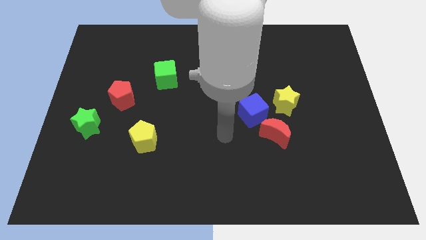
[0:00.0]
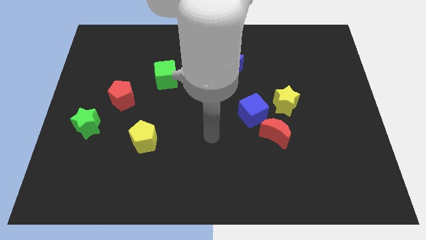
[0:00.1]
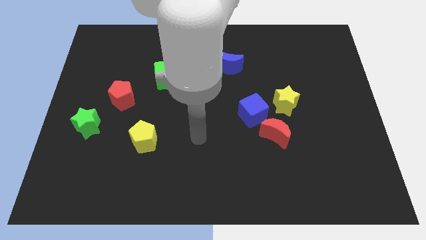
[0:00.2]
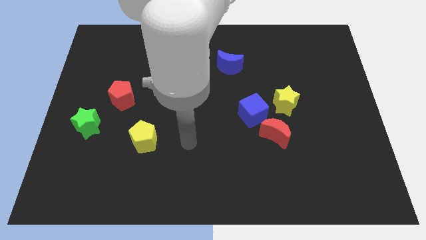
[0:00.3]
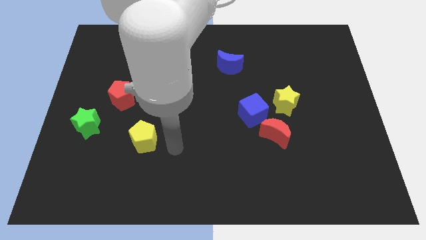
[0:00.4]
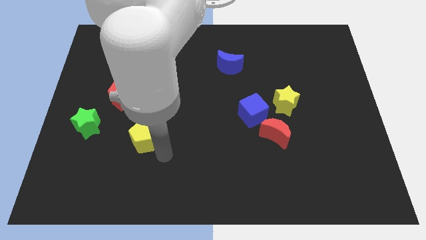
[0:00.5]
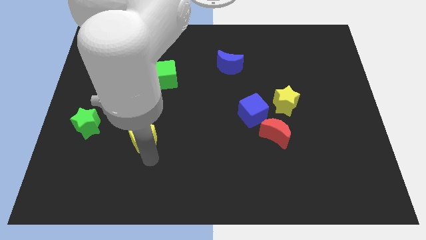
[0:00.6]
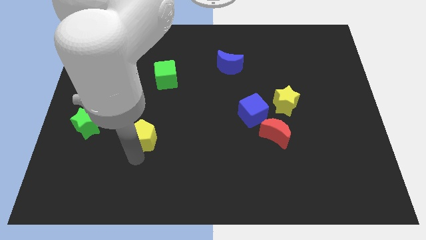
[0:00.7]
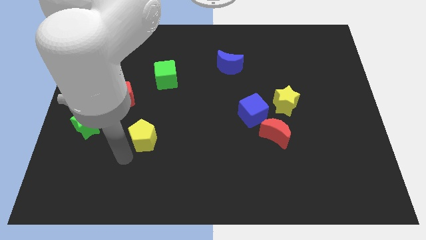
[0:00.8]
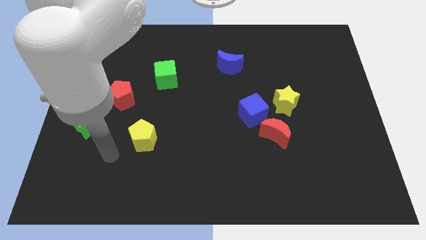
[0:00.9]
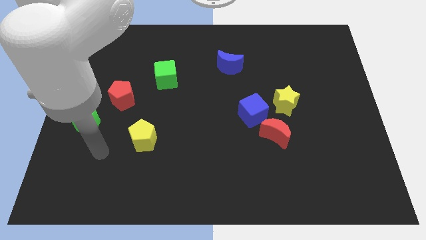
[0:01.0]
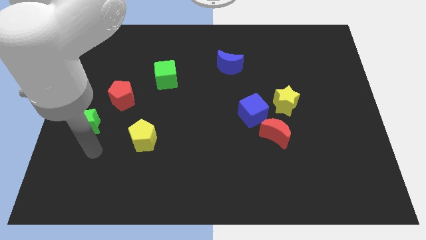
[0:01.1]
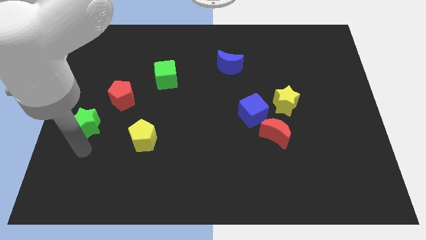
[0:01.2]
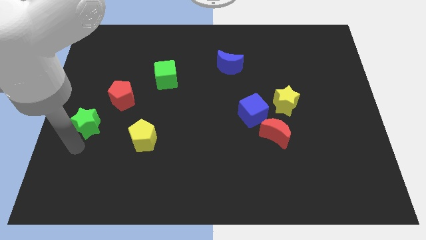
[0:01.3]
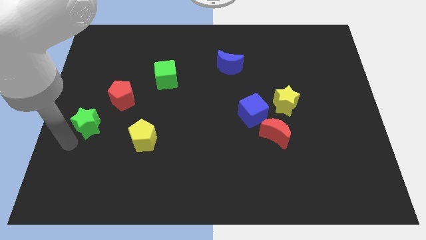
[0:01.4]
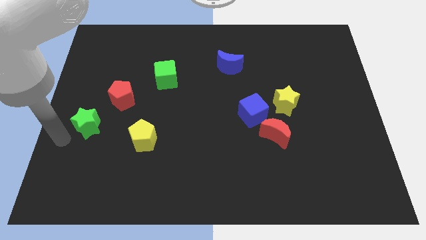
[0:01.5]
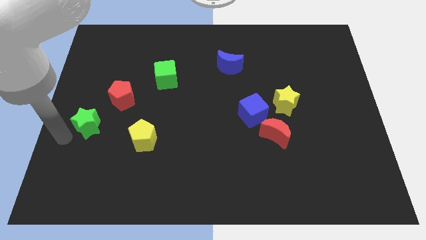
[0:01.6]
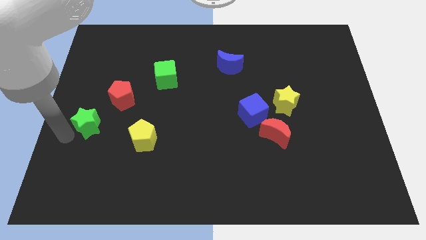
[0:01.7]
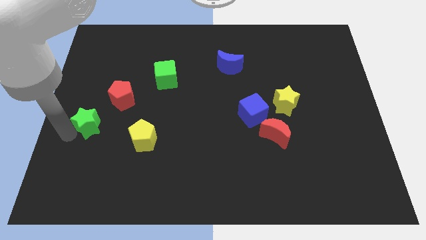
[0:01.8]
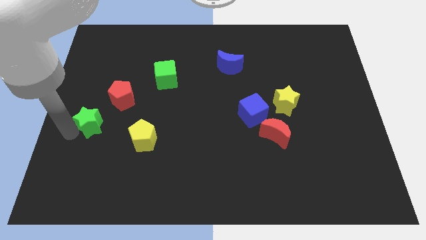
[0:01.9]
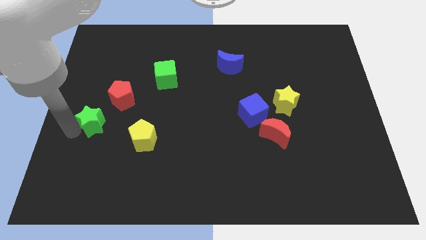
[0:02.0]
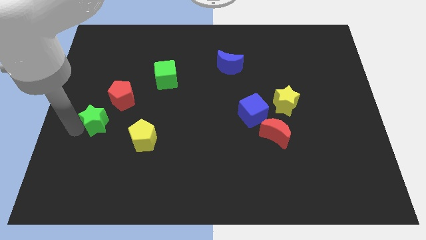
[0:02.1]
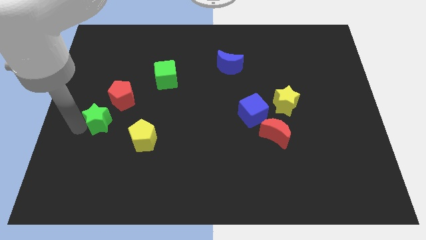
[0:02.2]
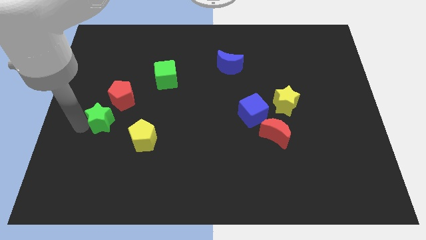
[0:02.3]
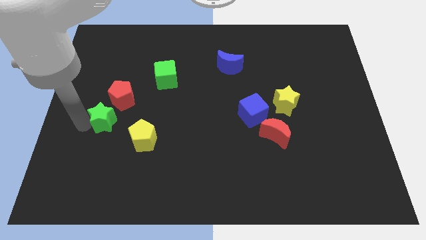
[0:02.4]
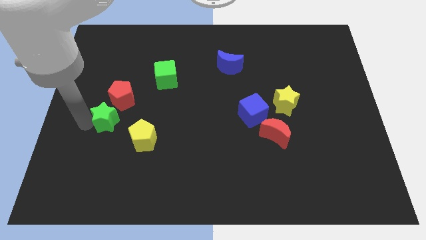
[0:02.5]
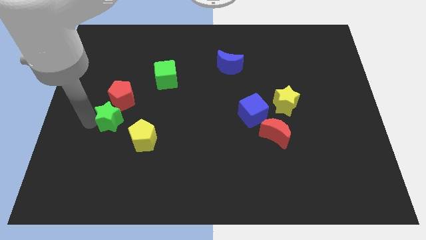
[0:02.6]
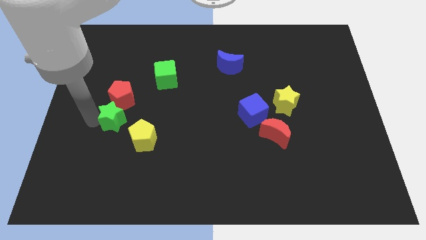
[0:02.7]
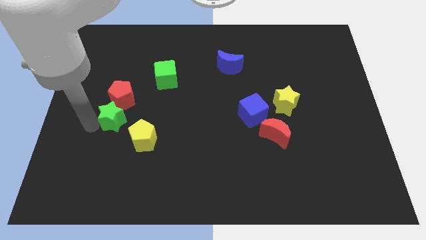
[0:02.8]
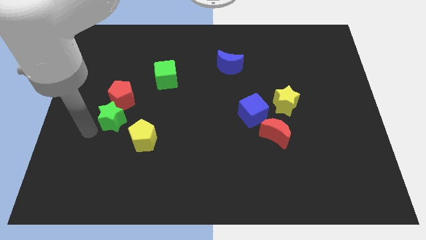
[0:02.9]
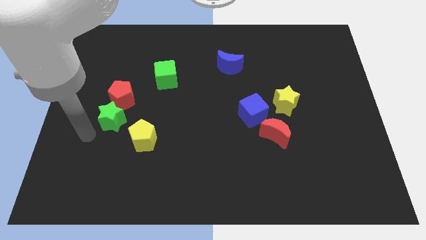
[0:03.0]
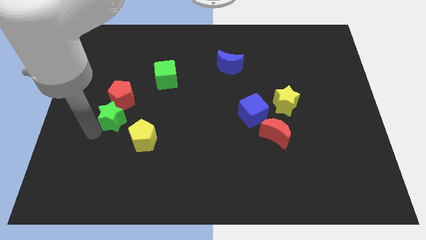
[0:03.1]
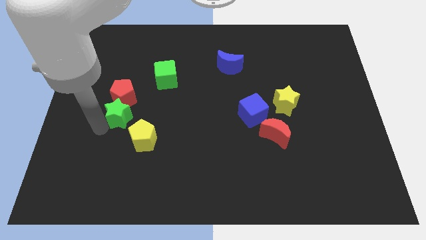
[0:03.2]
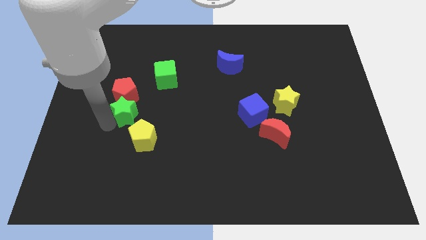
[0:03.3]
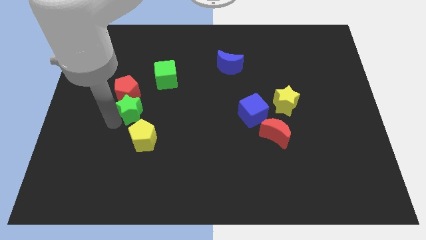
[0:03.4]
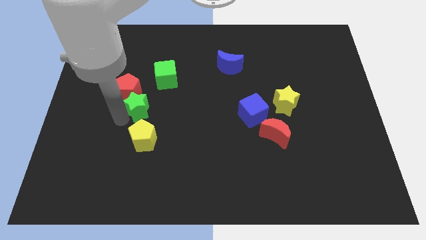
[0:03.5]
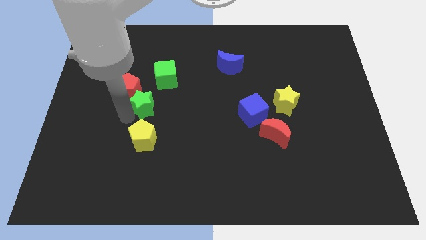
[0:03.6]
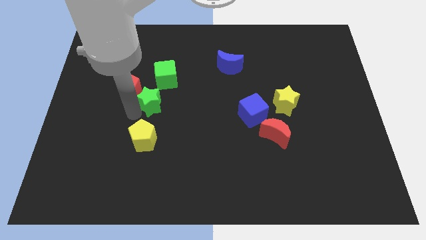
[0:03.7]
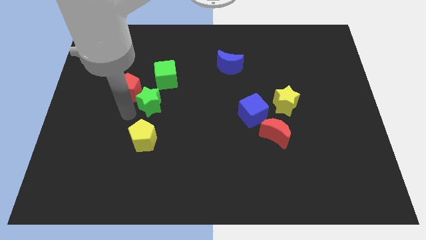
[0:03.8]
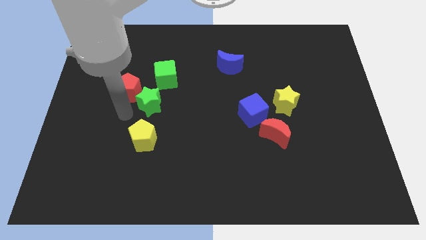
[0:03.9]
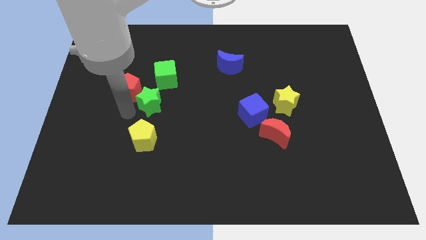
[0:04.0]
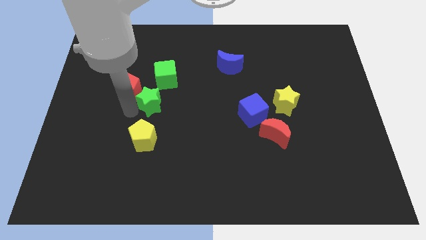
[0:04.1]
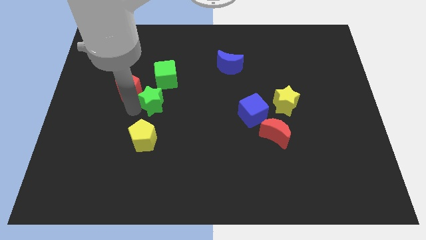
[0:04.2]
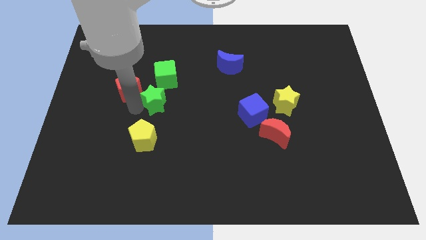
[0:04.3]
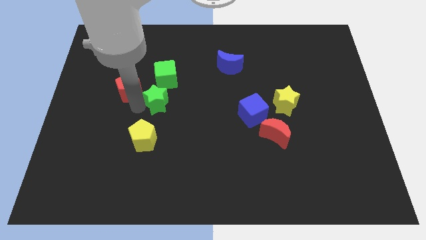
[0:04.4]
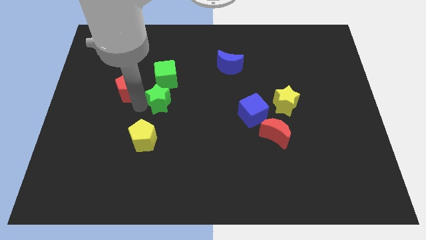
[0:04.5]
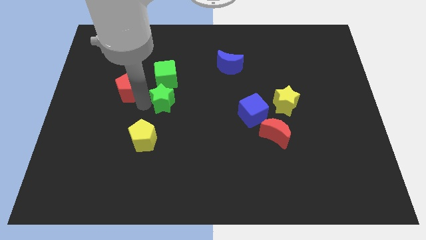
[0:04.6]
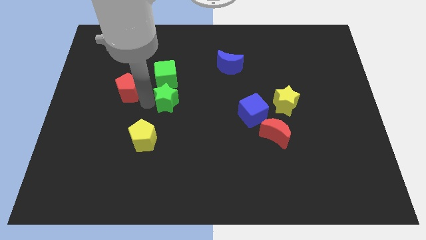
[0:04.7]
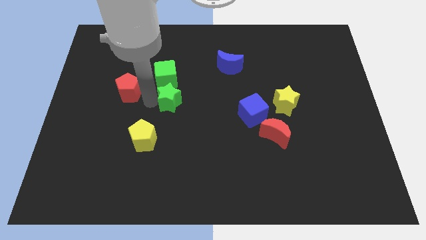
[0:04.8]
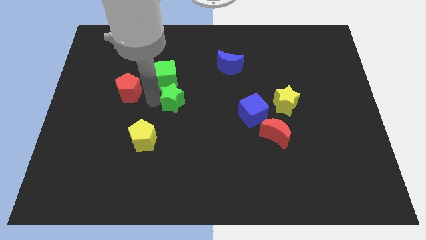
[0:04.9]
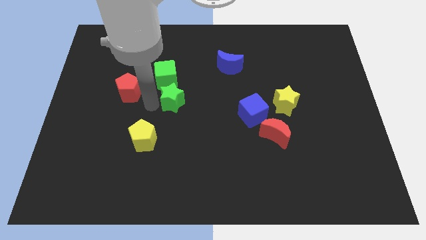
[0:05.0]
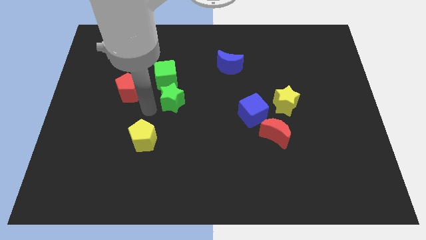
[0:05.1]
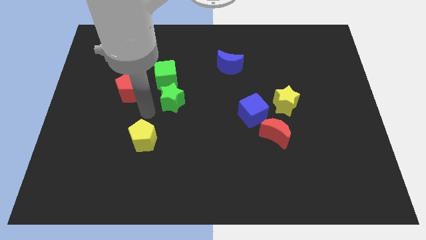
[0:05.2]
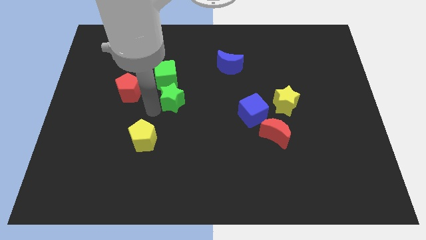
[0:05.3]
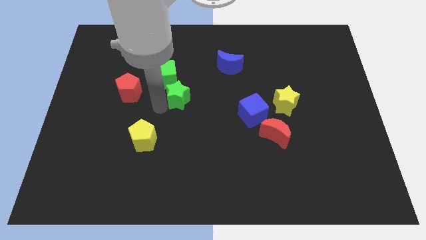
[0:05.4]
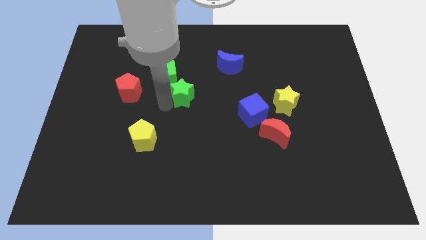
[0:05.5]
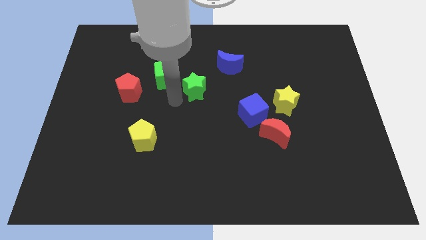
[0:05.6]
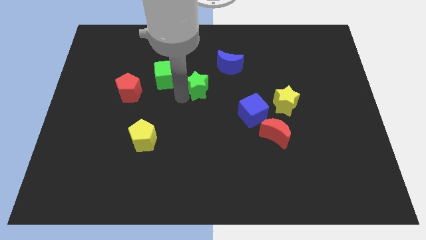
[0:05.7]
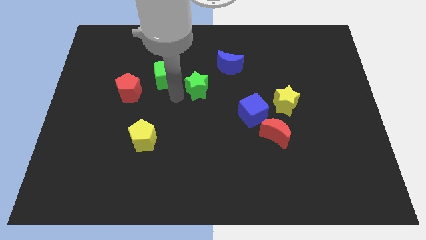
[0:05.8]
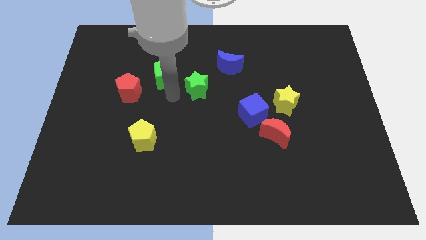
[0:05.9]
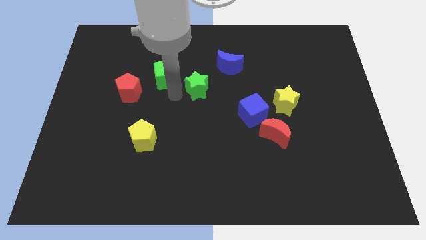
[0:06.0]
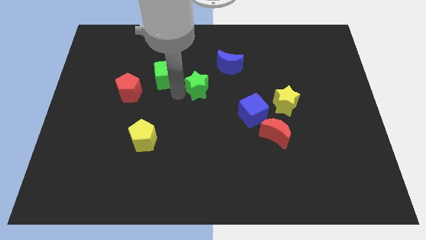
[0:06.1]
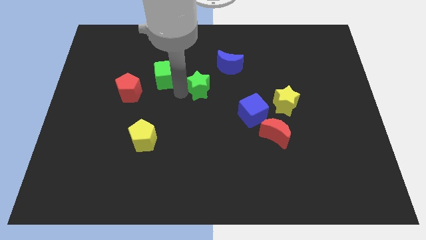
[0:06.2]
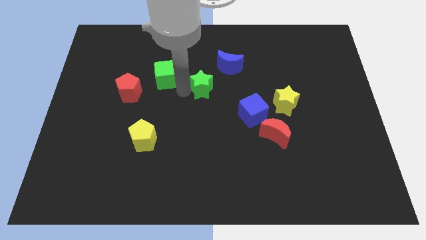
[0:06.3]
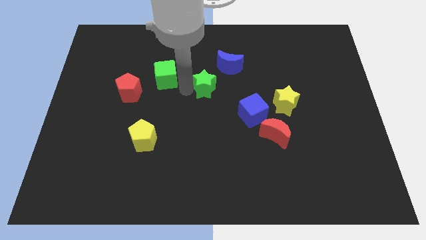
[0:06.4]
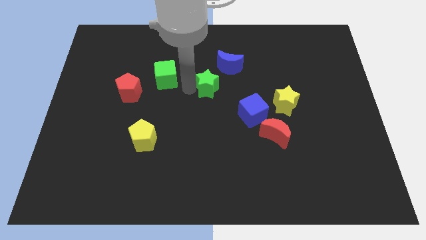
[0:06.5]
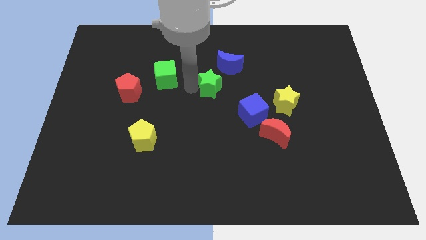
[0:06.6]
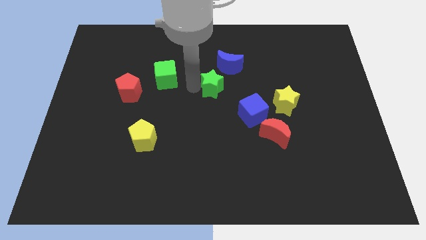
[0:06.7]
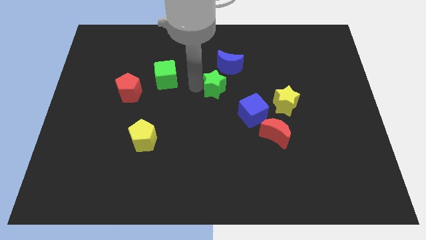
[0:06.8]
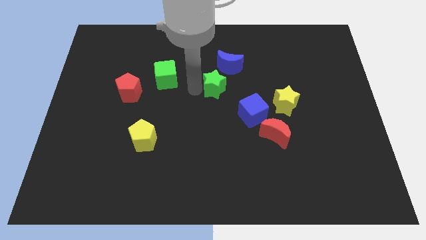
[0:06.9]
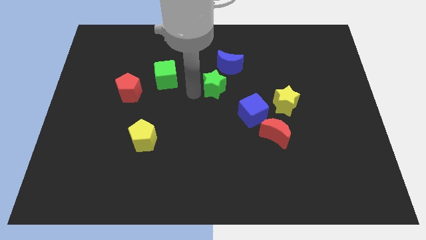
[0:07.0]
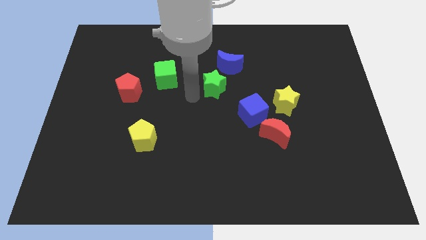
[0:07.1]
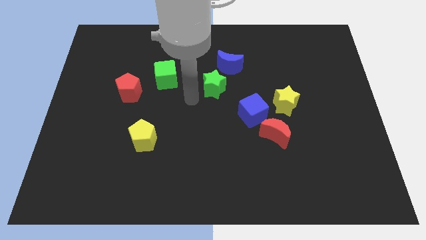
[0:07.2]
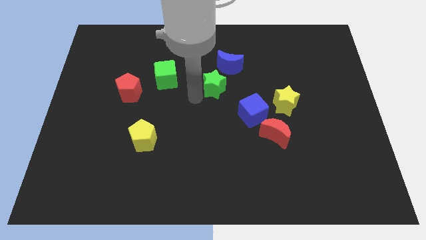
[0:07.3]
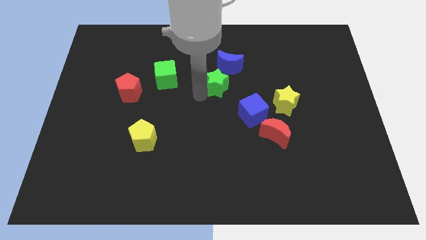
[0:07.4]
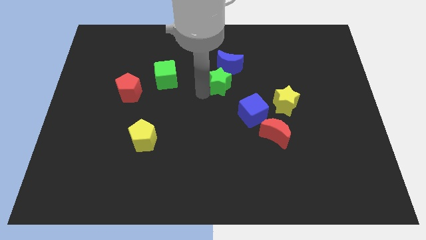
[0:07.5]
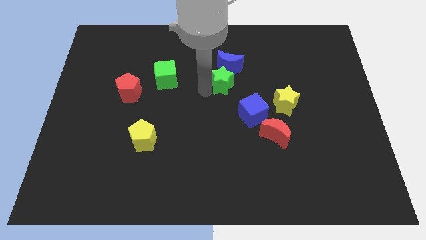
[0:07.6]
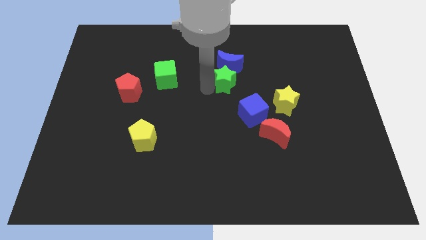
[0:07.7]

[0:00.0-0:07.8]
slide the green star to the bottom right of the blue moon

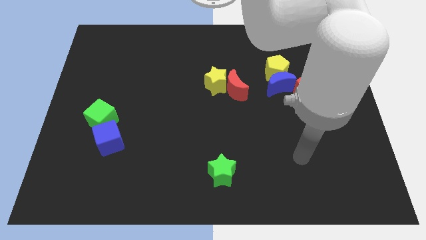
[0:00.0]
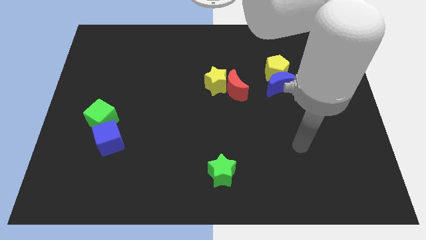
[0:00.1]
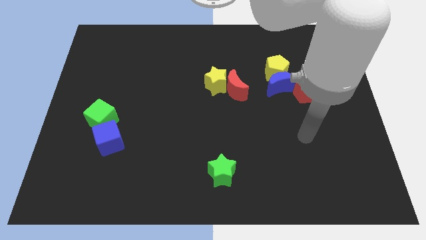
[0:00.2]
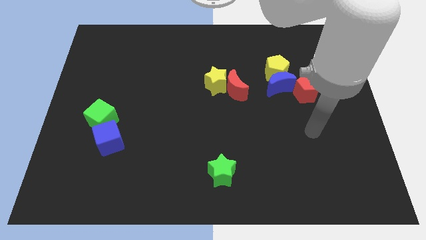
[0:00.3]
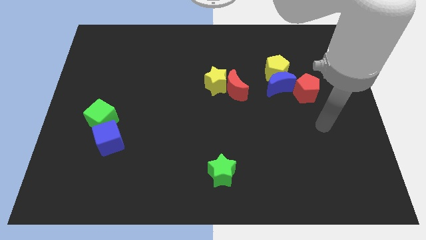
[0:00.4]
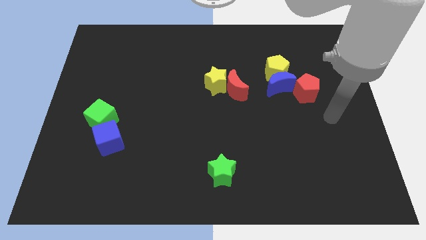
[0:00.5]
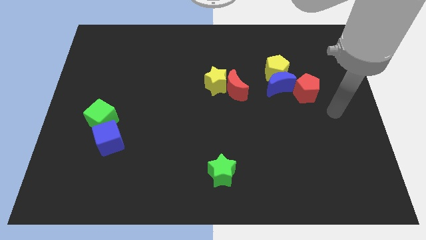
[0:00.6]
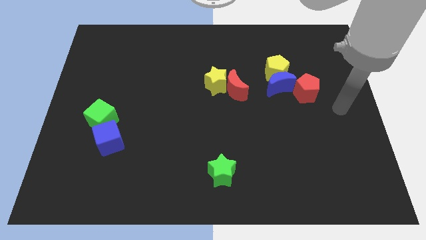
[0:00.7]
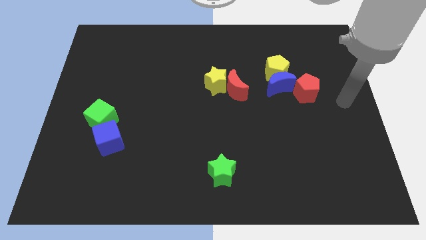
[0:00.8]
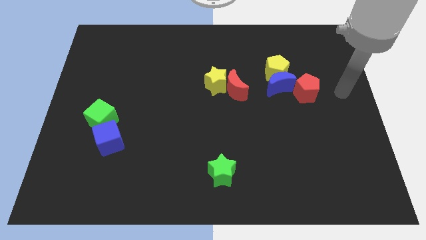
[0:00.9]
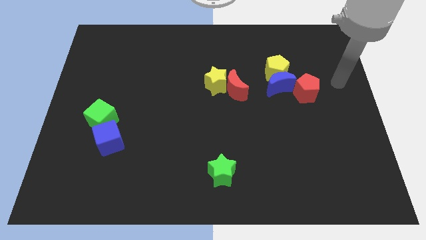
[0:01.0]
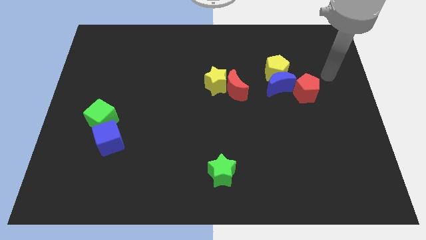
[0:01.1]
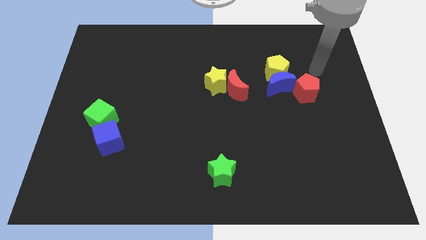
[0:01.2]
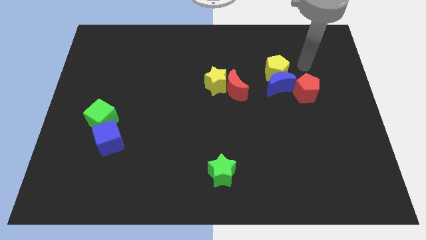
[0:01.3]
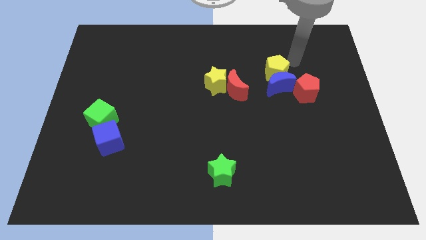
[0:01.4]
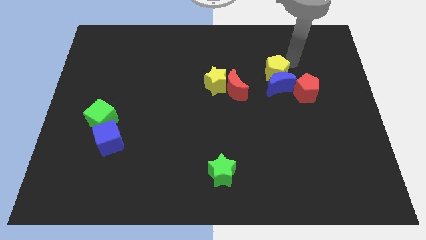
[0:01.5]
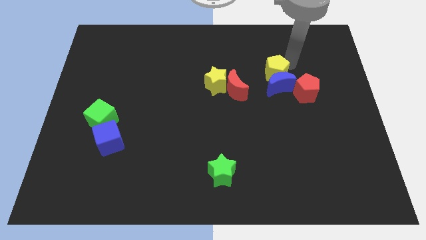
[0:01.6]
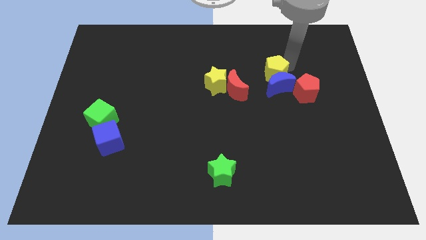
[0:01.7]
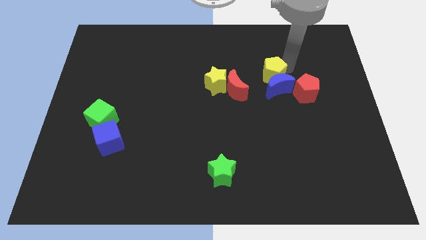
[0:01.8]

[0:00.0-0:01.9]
slide the yellow pentagon right of the yellow star
